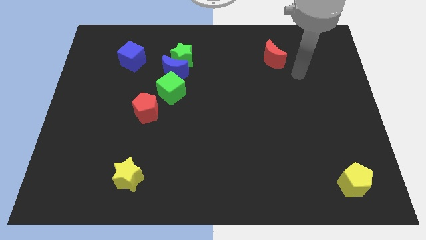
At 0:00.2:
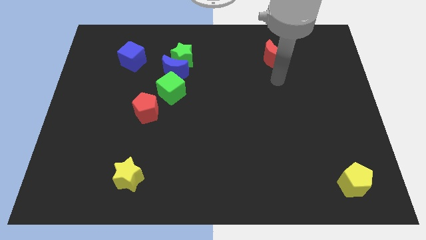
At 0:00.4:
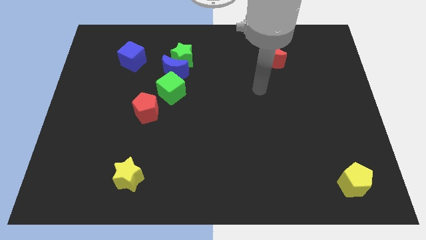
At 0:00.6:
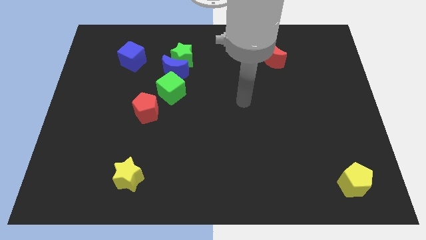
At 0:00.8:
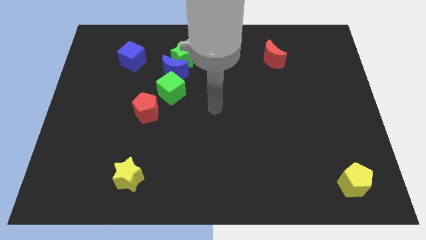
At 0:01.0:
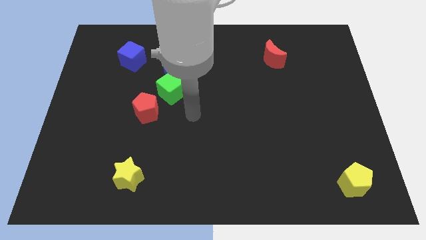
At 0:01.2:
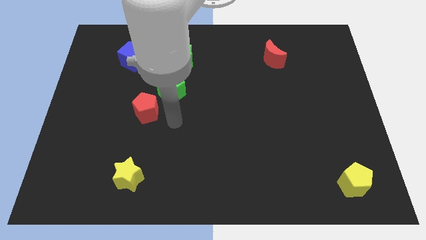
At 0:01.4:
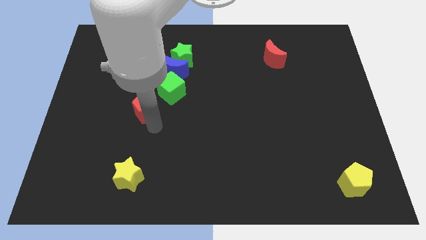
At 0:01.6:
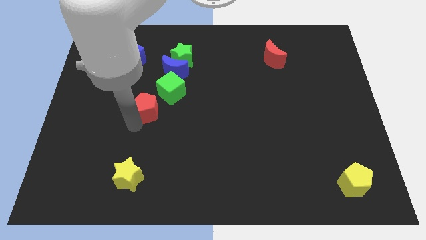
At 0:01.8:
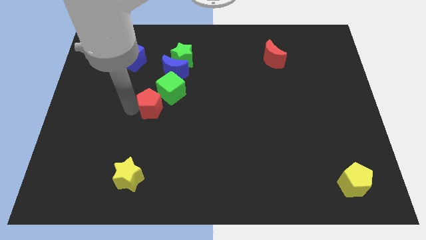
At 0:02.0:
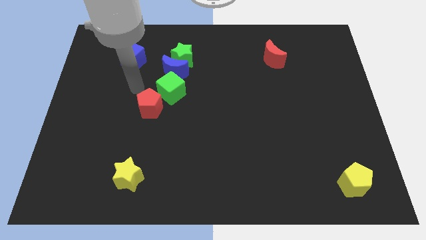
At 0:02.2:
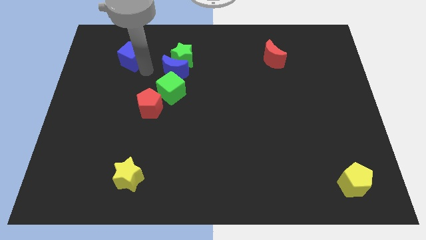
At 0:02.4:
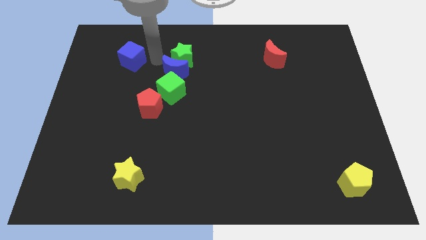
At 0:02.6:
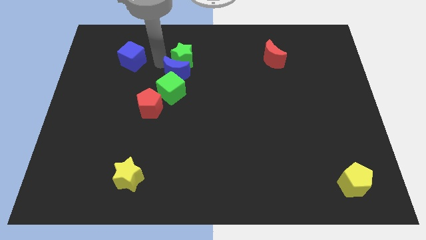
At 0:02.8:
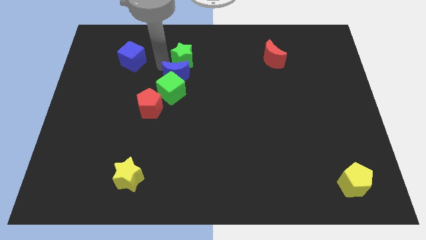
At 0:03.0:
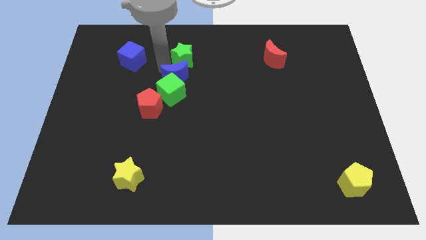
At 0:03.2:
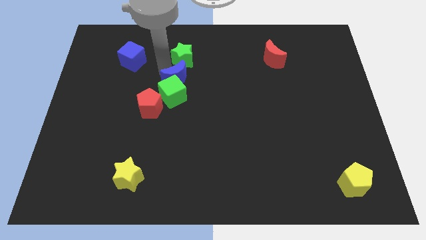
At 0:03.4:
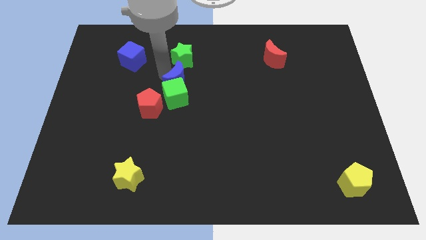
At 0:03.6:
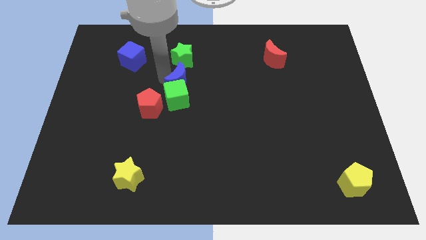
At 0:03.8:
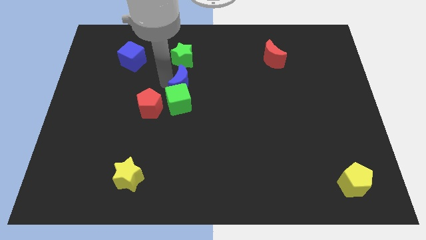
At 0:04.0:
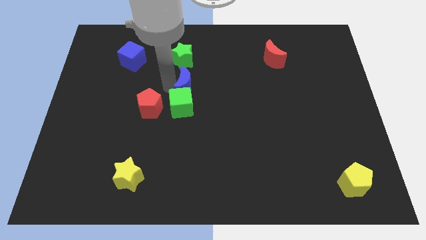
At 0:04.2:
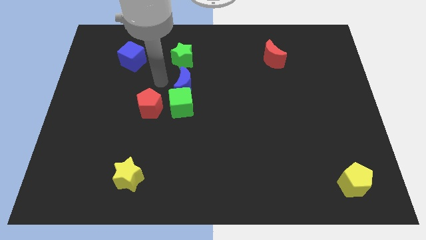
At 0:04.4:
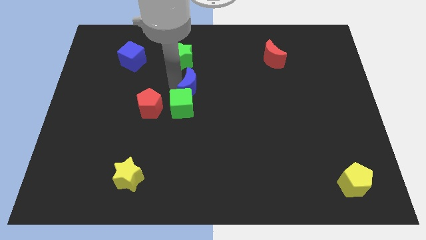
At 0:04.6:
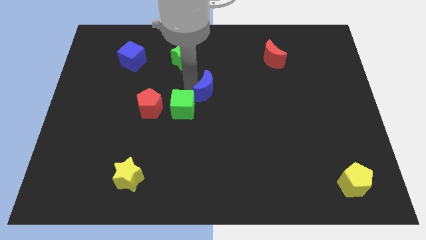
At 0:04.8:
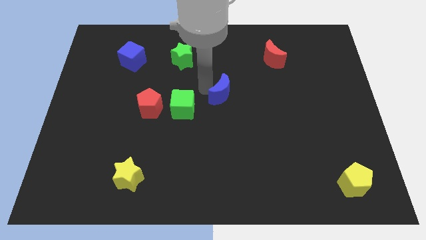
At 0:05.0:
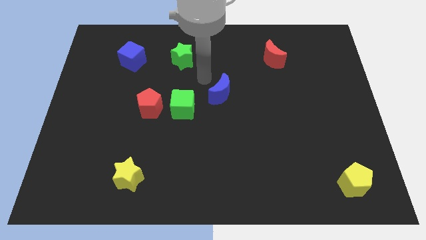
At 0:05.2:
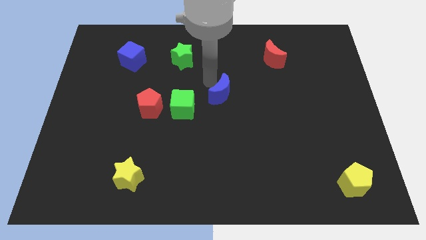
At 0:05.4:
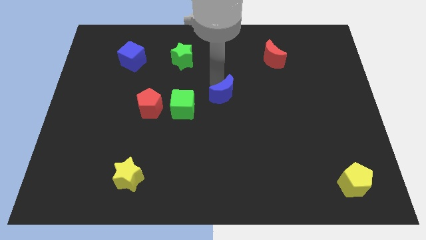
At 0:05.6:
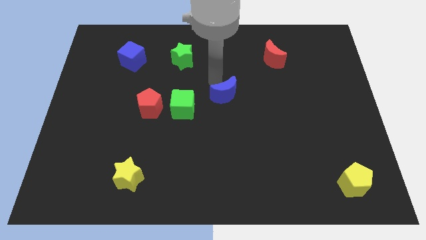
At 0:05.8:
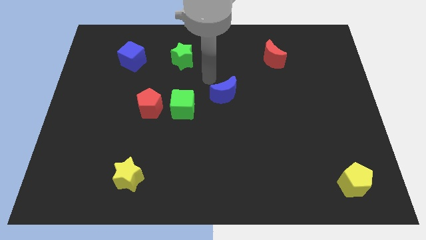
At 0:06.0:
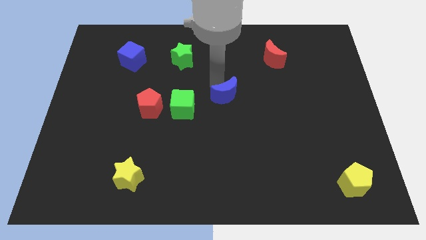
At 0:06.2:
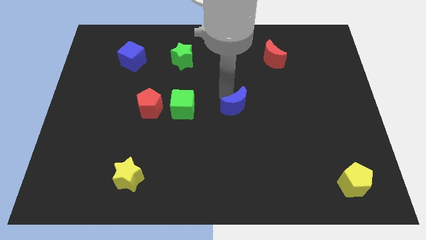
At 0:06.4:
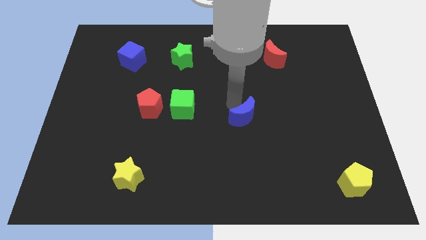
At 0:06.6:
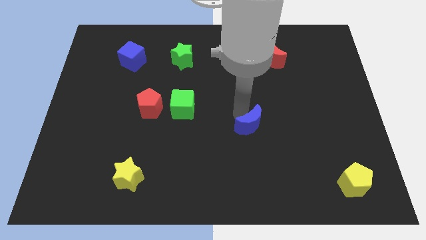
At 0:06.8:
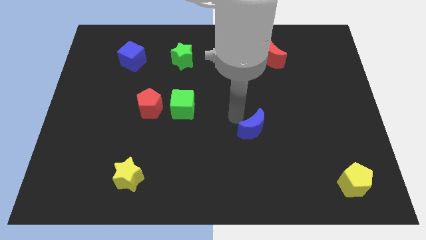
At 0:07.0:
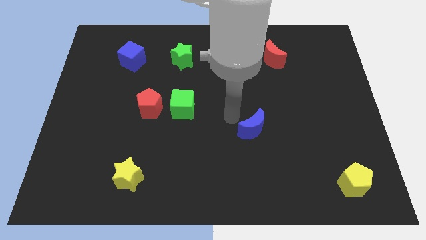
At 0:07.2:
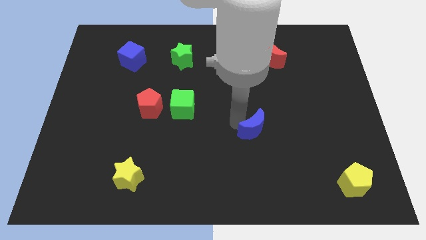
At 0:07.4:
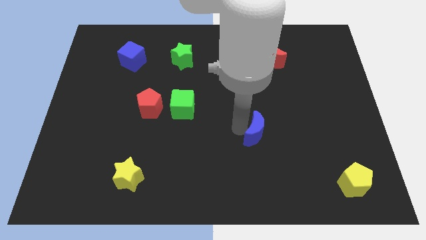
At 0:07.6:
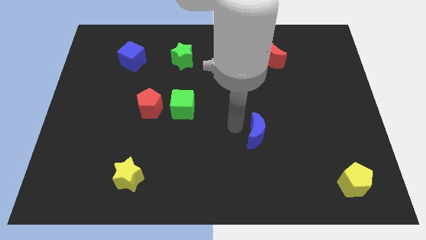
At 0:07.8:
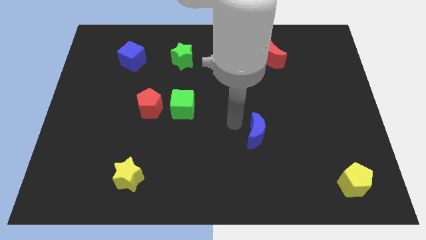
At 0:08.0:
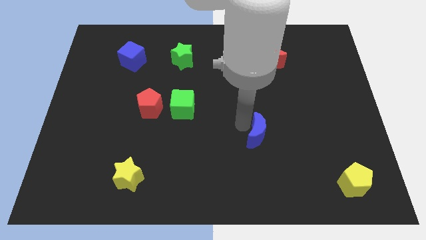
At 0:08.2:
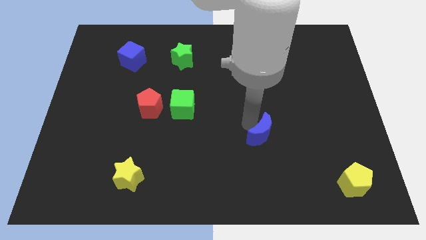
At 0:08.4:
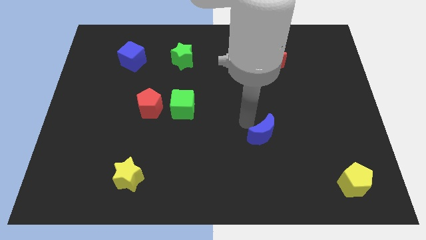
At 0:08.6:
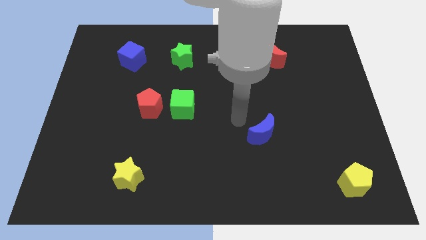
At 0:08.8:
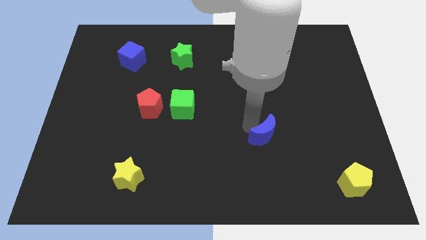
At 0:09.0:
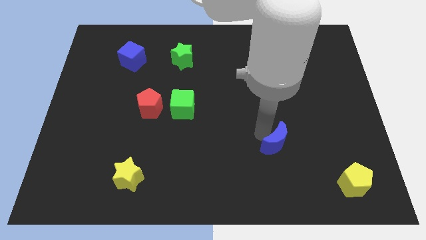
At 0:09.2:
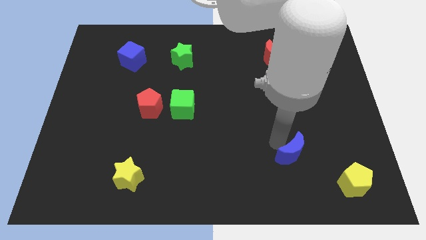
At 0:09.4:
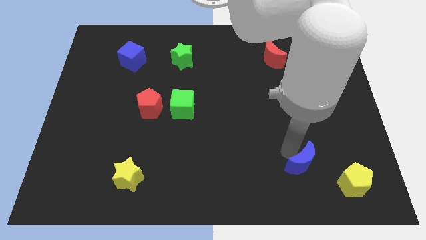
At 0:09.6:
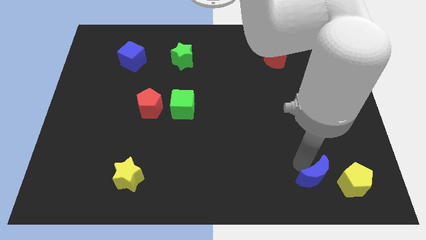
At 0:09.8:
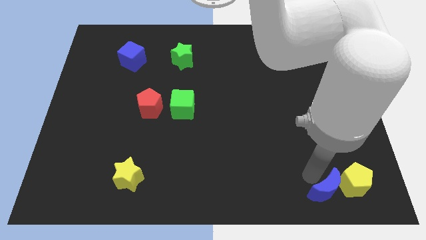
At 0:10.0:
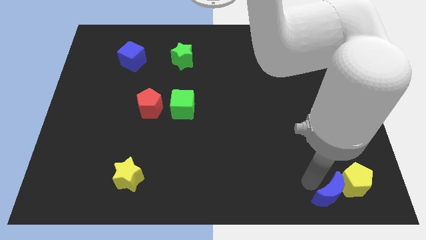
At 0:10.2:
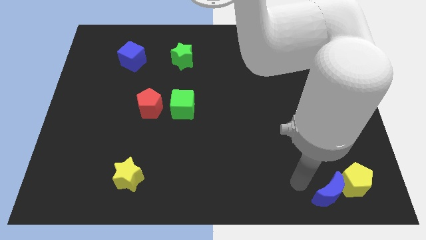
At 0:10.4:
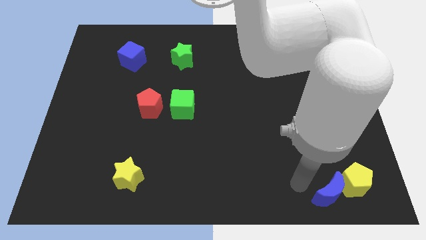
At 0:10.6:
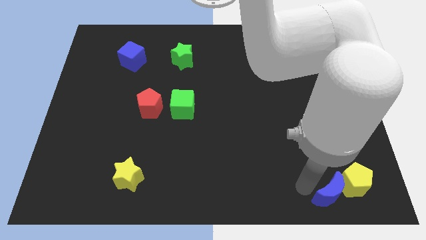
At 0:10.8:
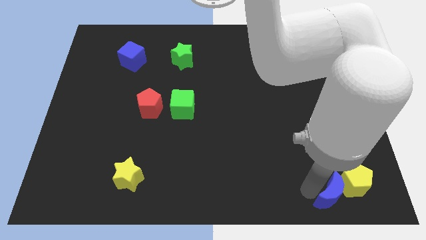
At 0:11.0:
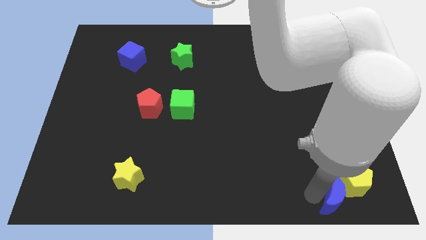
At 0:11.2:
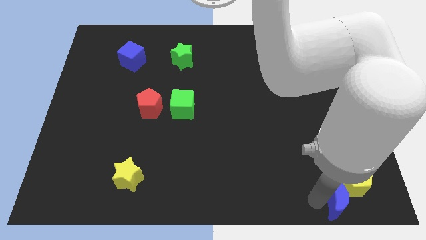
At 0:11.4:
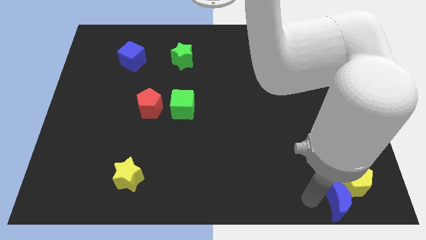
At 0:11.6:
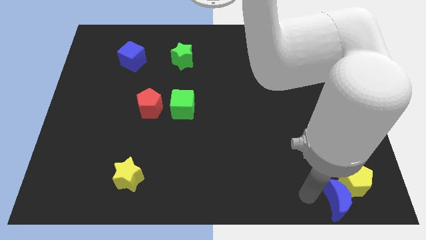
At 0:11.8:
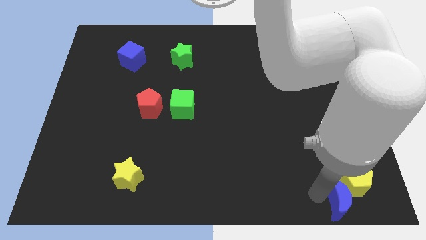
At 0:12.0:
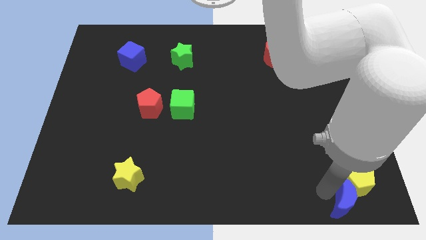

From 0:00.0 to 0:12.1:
move the blue moon to the lower right corner
